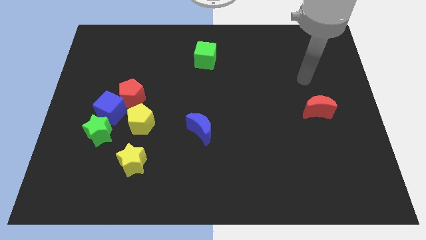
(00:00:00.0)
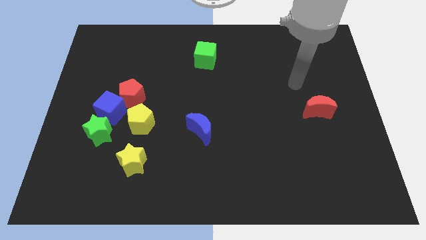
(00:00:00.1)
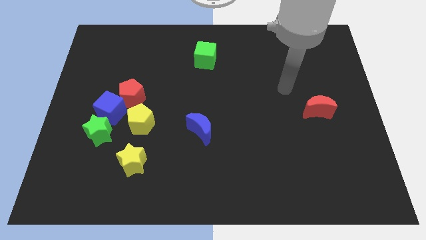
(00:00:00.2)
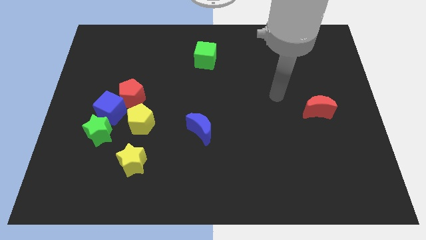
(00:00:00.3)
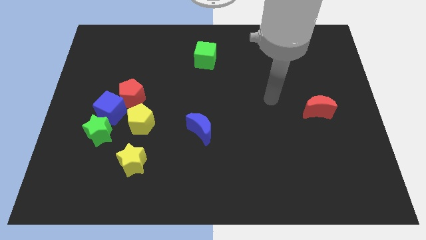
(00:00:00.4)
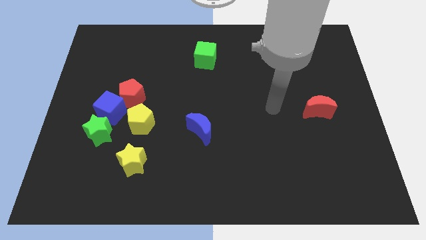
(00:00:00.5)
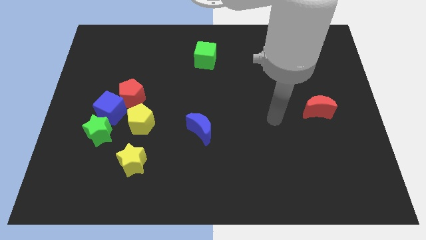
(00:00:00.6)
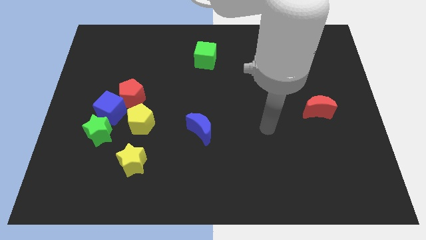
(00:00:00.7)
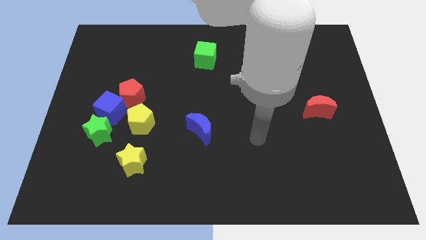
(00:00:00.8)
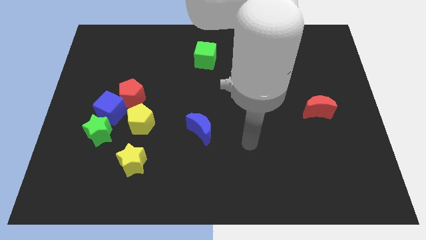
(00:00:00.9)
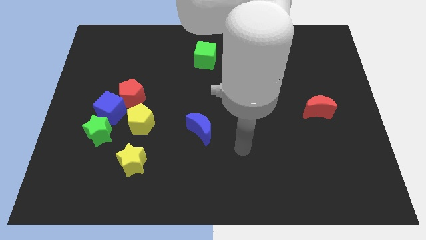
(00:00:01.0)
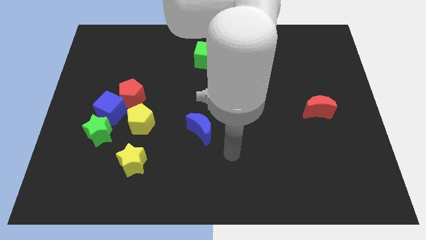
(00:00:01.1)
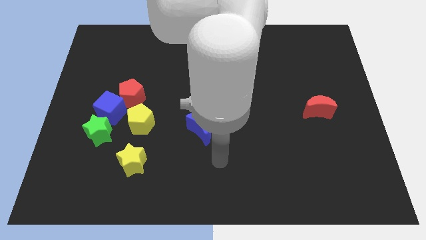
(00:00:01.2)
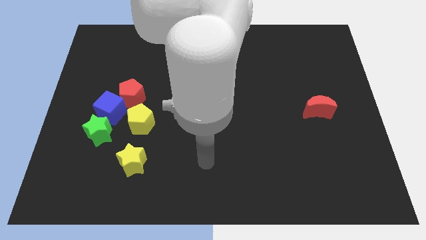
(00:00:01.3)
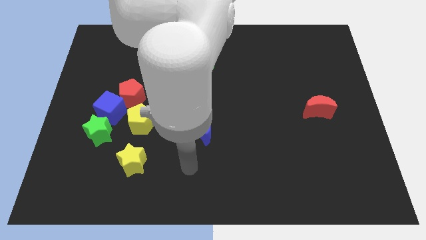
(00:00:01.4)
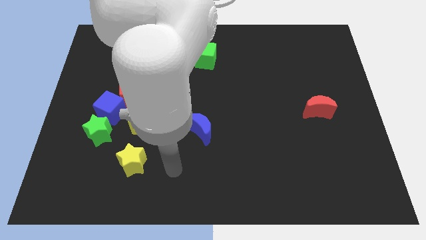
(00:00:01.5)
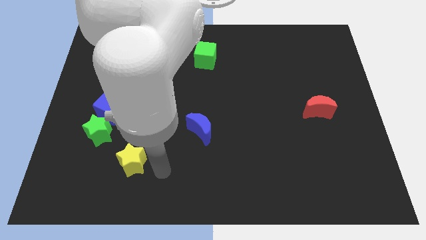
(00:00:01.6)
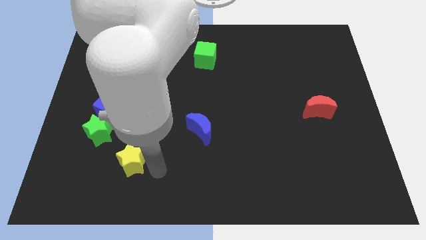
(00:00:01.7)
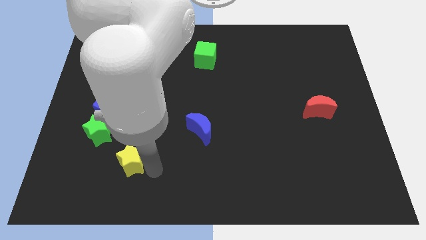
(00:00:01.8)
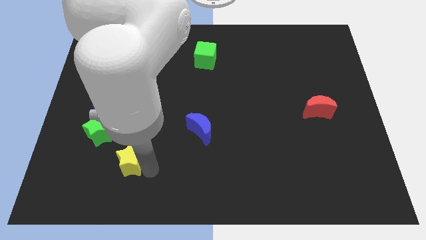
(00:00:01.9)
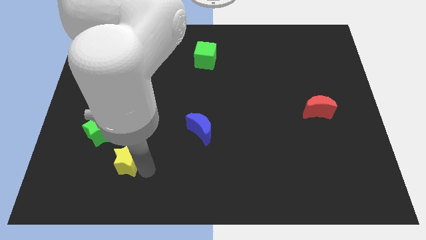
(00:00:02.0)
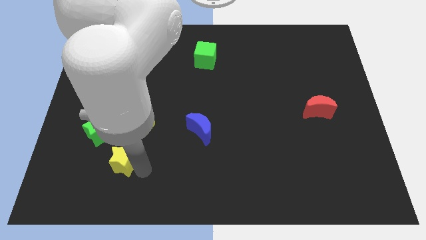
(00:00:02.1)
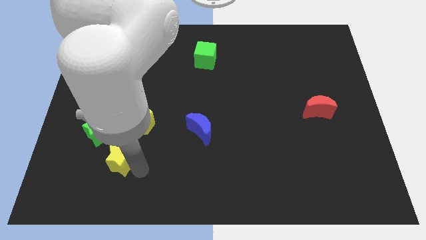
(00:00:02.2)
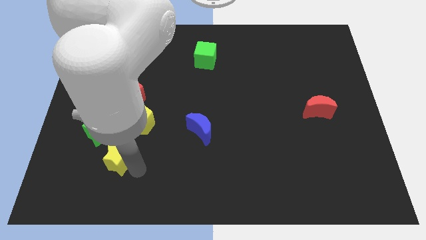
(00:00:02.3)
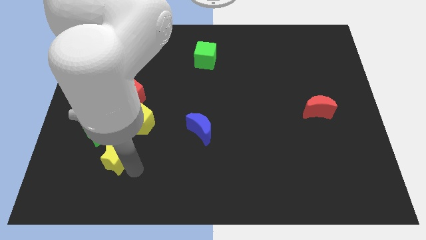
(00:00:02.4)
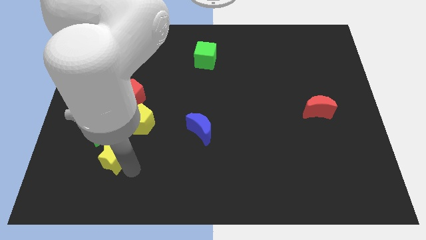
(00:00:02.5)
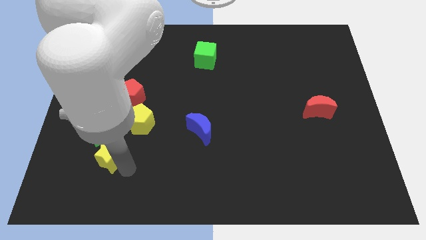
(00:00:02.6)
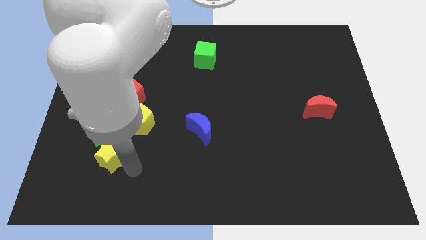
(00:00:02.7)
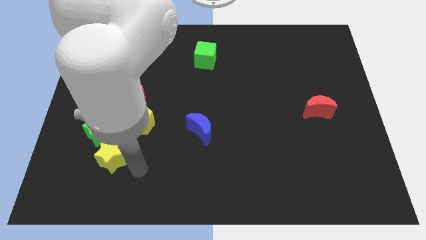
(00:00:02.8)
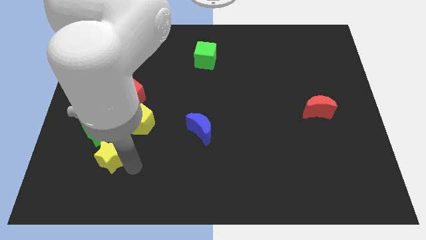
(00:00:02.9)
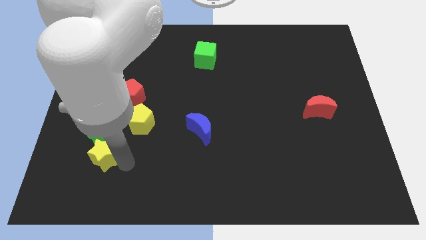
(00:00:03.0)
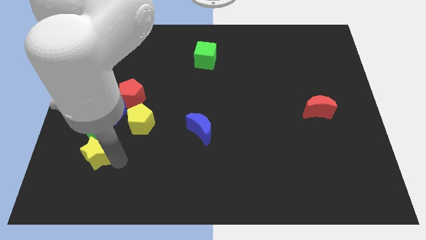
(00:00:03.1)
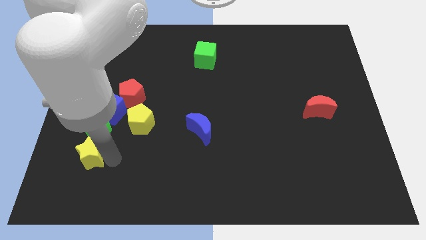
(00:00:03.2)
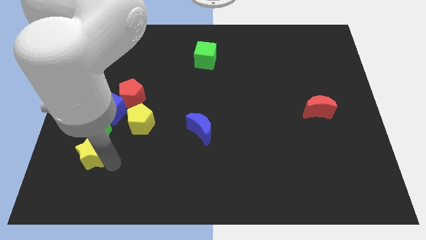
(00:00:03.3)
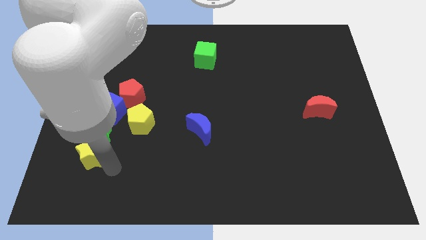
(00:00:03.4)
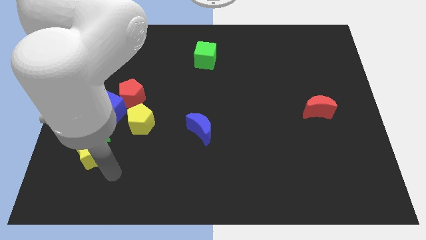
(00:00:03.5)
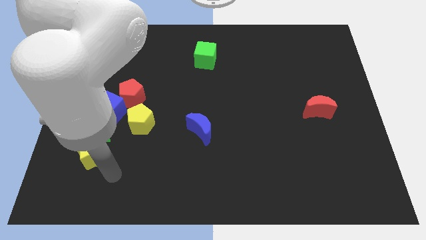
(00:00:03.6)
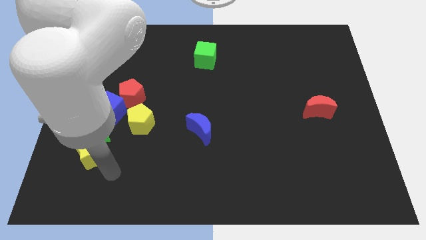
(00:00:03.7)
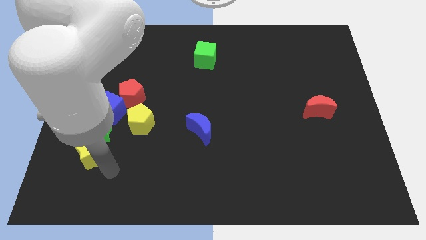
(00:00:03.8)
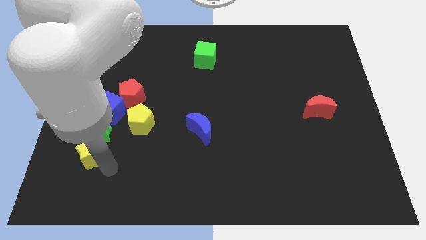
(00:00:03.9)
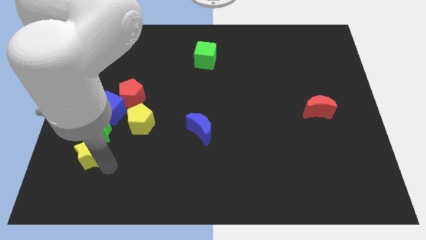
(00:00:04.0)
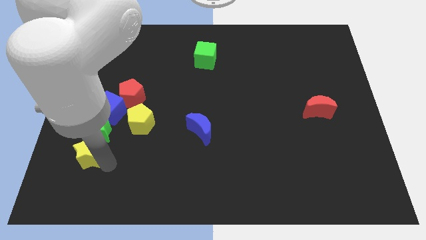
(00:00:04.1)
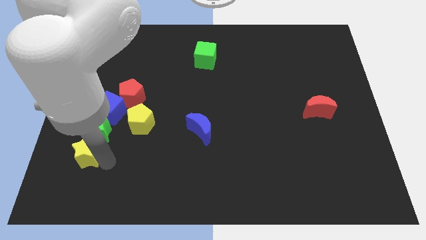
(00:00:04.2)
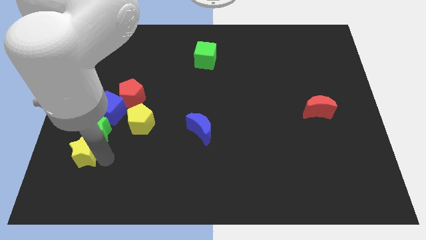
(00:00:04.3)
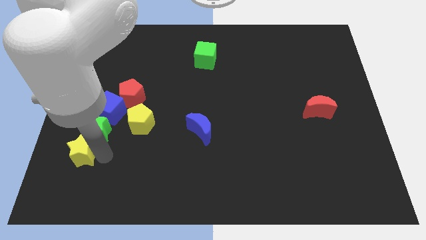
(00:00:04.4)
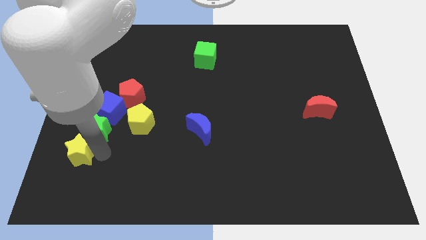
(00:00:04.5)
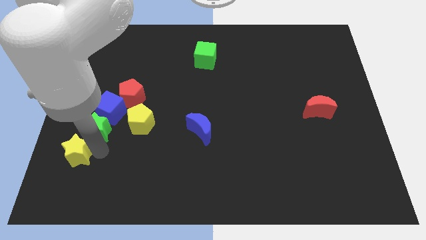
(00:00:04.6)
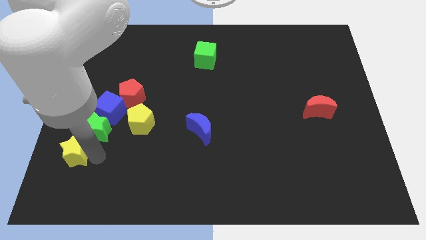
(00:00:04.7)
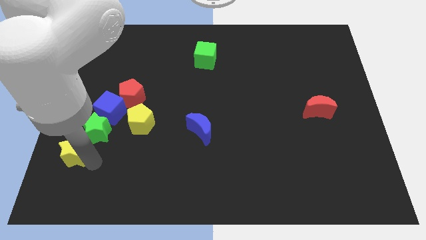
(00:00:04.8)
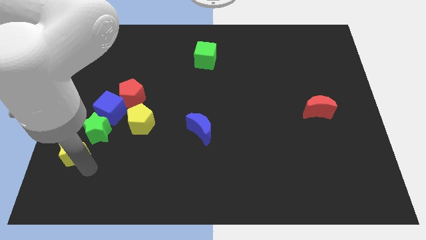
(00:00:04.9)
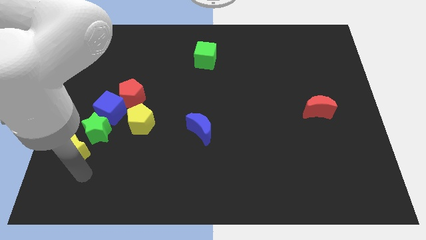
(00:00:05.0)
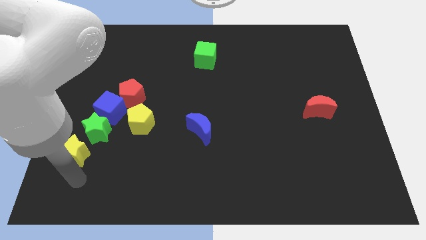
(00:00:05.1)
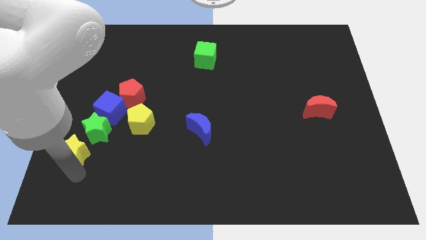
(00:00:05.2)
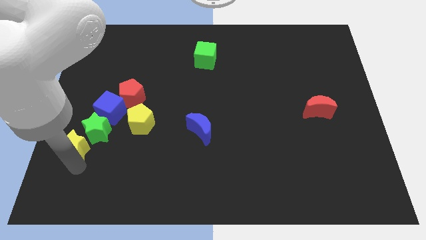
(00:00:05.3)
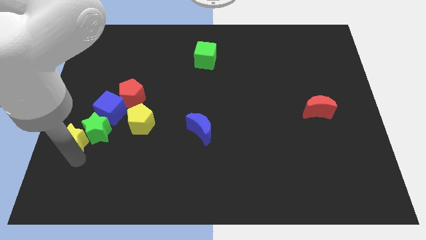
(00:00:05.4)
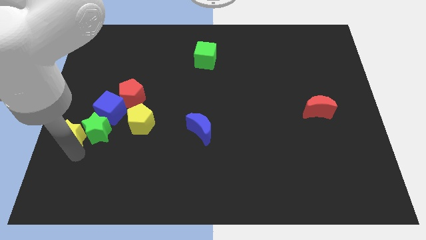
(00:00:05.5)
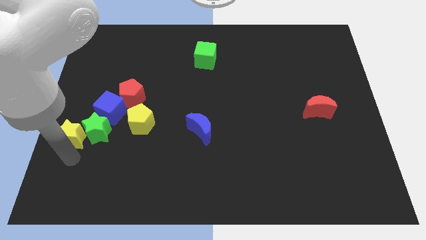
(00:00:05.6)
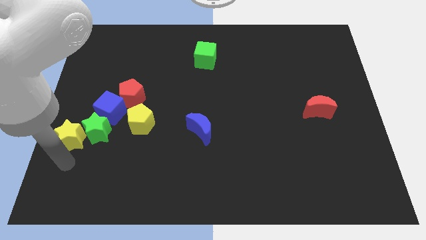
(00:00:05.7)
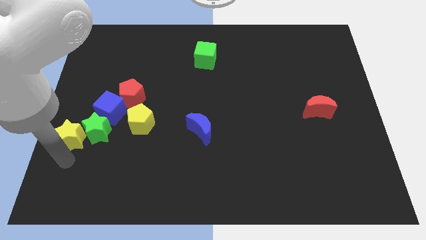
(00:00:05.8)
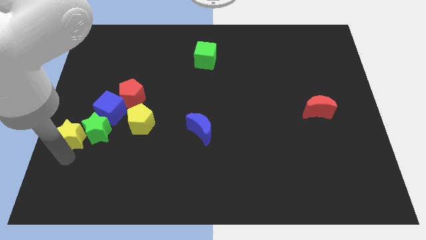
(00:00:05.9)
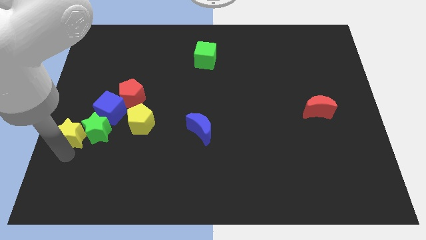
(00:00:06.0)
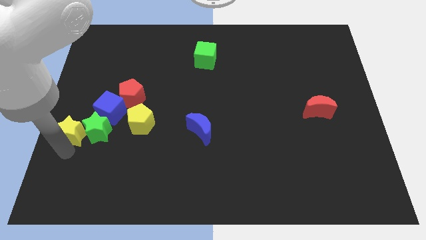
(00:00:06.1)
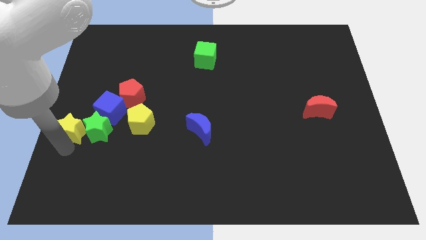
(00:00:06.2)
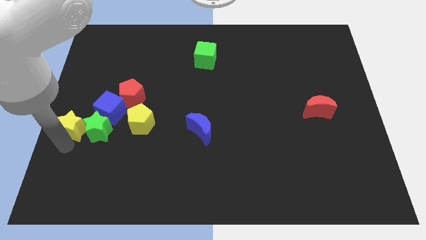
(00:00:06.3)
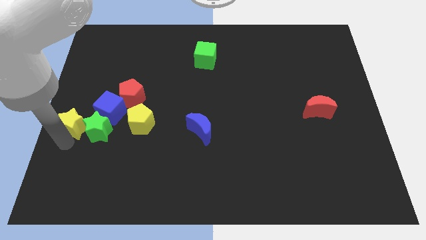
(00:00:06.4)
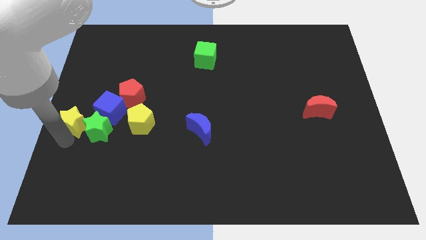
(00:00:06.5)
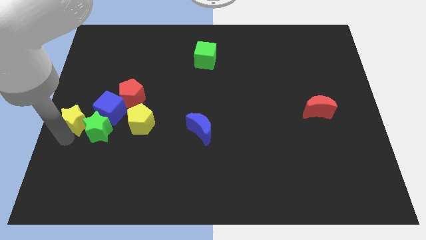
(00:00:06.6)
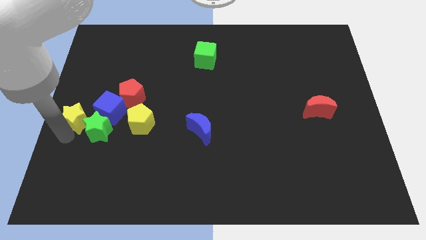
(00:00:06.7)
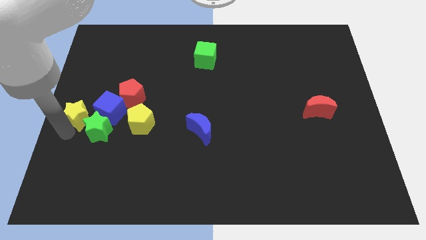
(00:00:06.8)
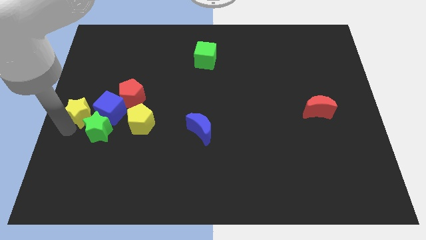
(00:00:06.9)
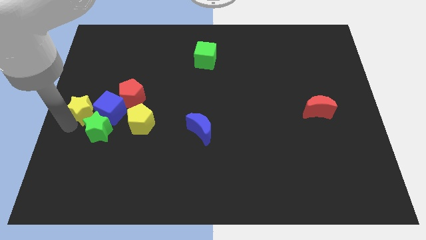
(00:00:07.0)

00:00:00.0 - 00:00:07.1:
put the yellow star to the top side of the green star

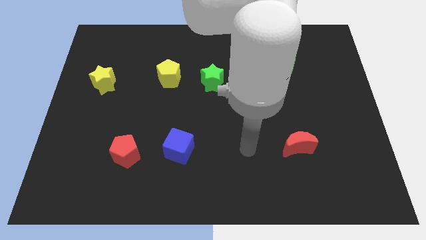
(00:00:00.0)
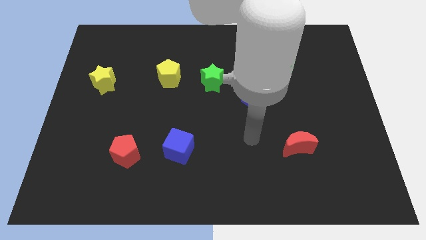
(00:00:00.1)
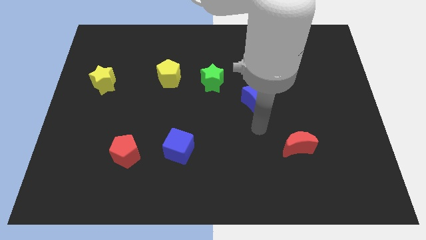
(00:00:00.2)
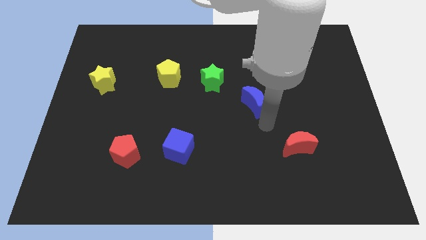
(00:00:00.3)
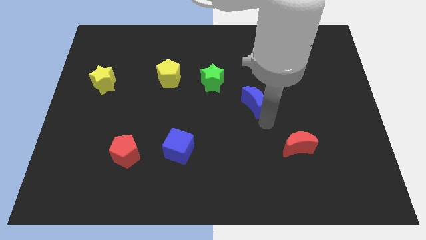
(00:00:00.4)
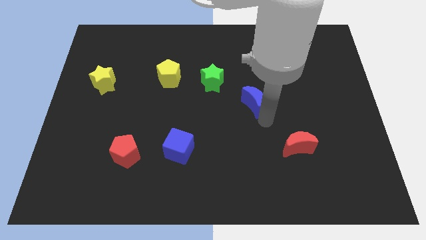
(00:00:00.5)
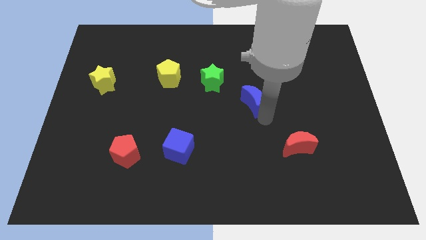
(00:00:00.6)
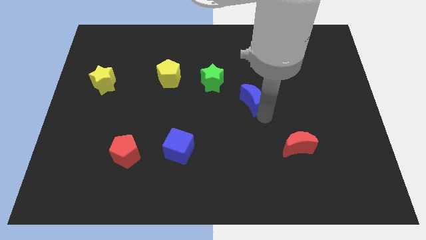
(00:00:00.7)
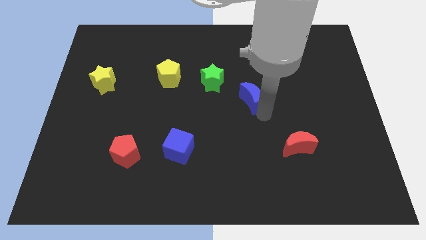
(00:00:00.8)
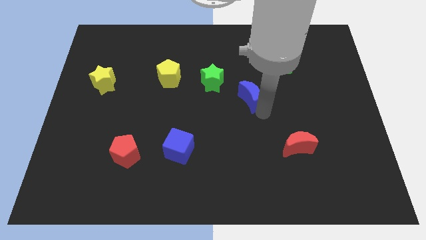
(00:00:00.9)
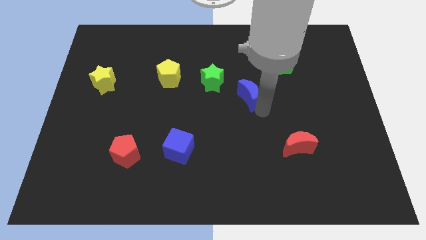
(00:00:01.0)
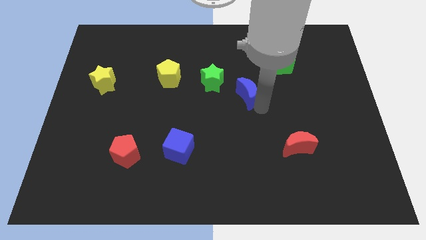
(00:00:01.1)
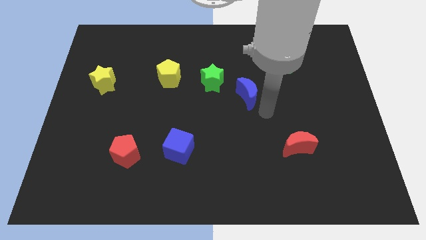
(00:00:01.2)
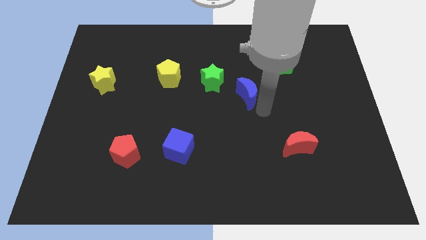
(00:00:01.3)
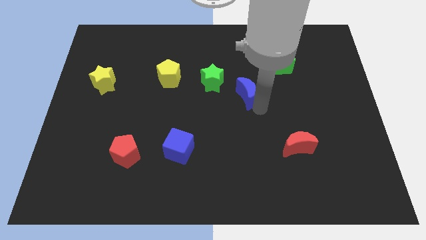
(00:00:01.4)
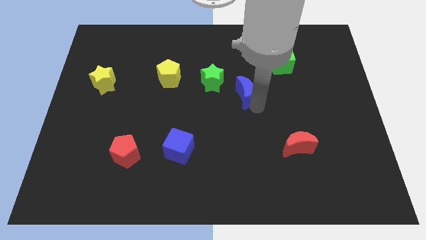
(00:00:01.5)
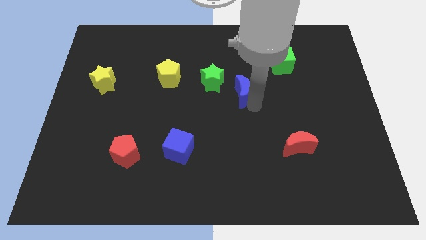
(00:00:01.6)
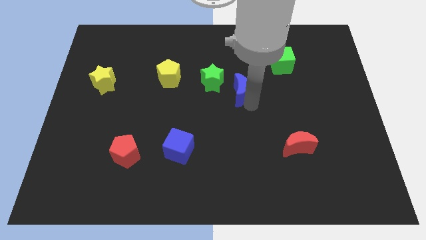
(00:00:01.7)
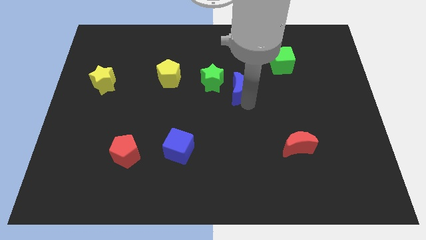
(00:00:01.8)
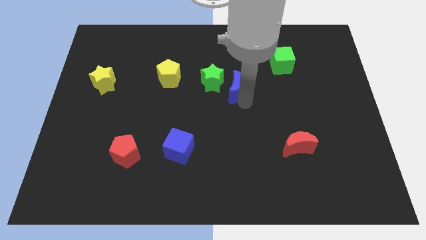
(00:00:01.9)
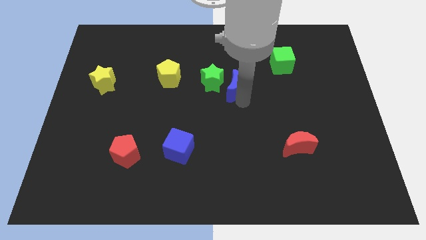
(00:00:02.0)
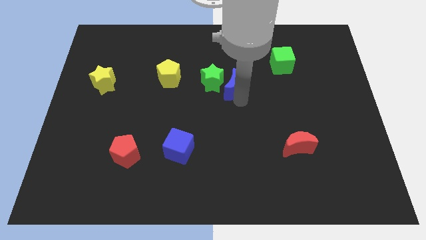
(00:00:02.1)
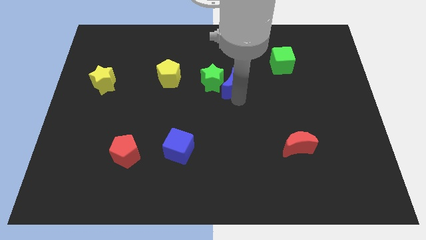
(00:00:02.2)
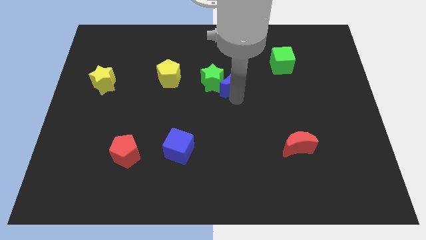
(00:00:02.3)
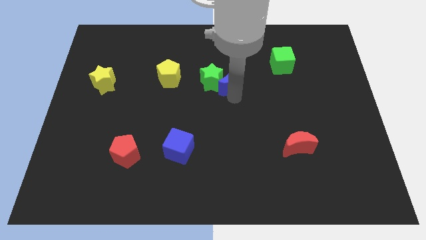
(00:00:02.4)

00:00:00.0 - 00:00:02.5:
move the blue moon just right of the yellow pentagon
